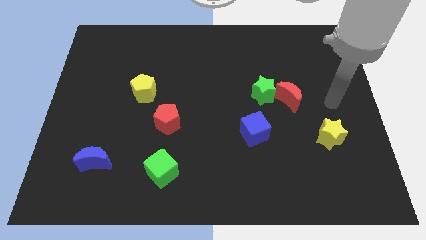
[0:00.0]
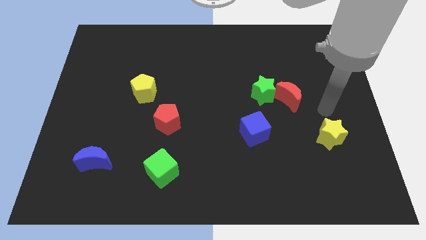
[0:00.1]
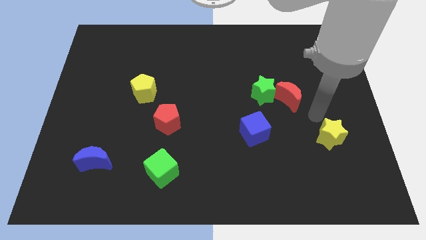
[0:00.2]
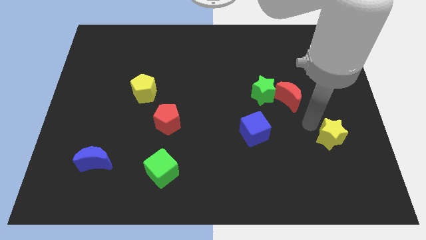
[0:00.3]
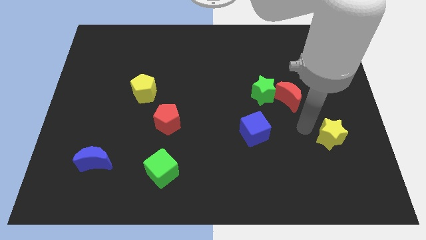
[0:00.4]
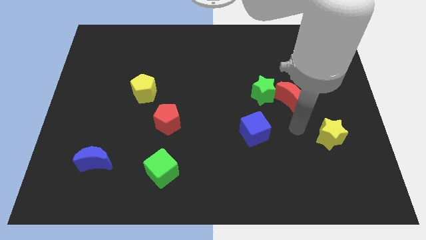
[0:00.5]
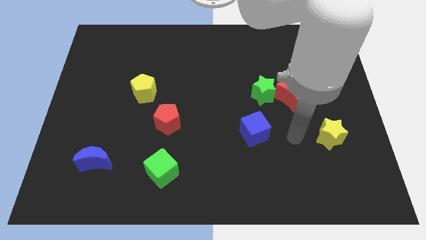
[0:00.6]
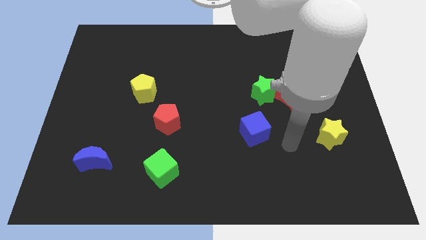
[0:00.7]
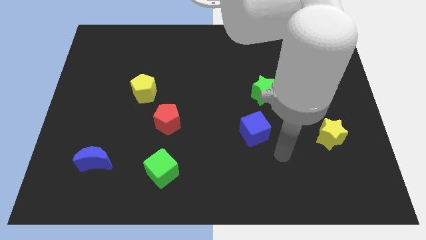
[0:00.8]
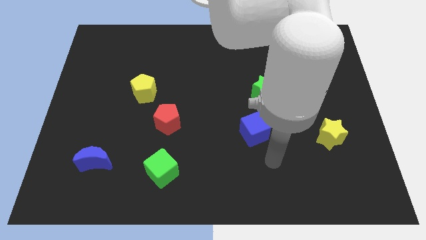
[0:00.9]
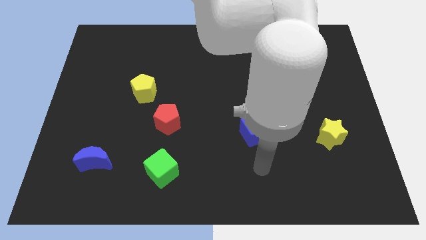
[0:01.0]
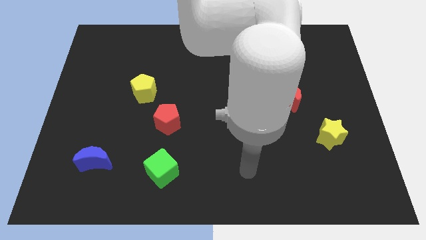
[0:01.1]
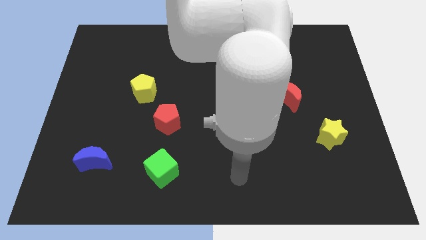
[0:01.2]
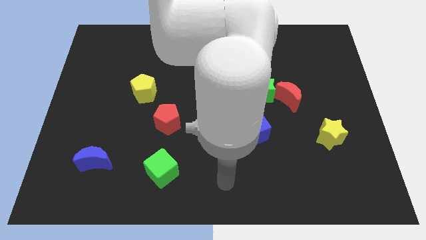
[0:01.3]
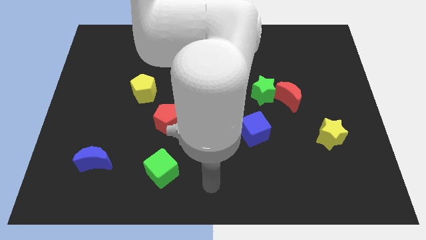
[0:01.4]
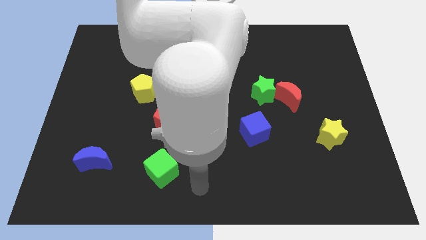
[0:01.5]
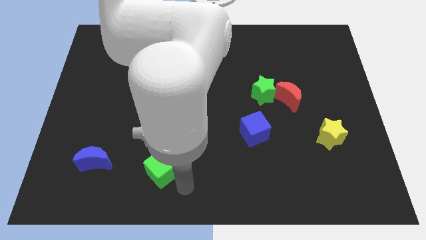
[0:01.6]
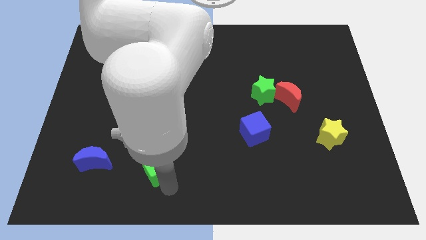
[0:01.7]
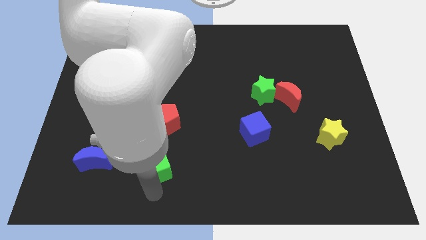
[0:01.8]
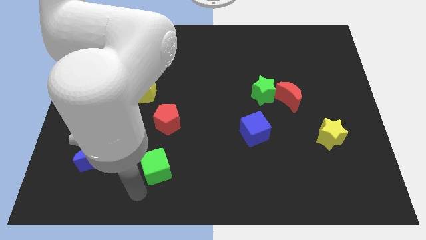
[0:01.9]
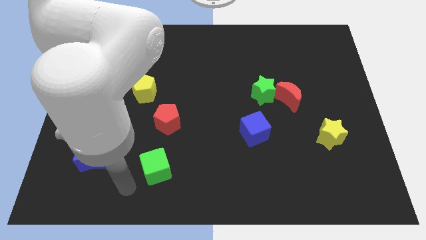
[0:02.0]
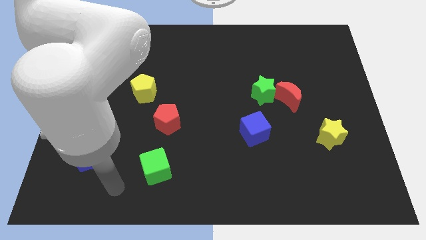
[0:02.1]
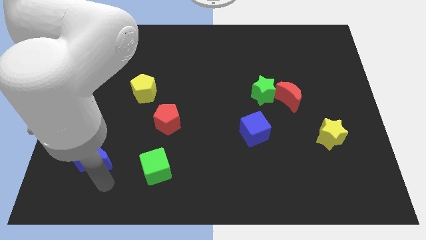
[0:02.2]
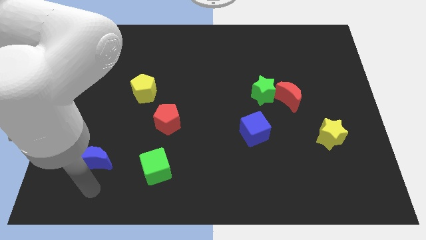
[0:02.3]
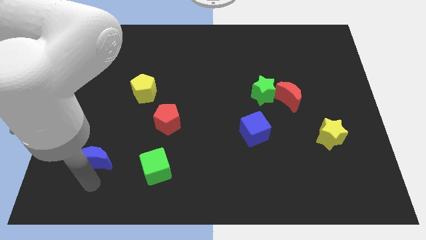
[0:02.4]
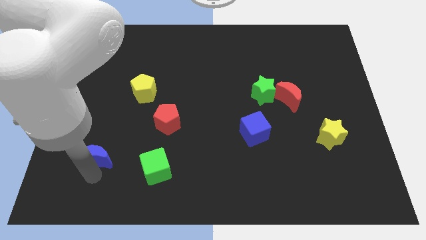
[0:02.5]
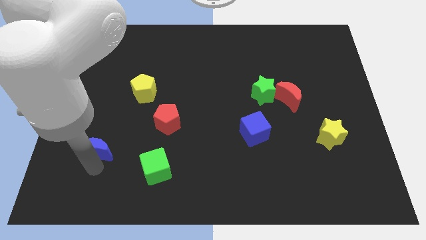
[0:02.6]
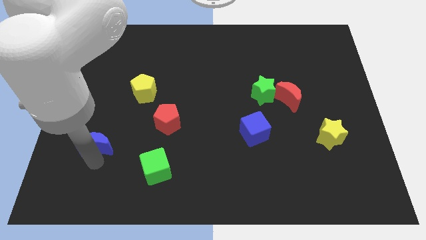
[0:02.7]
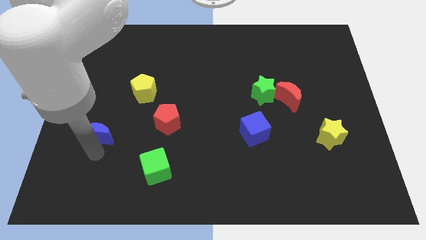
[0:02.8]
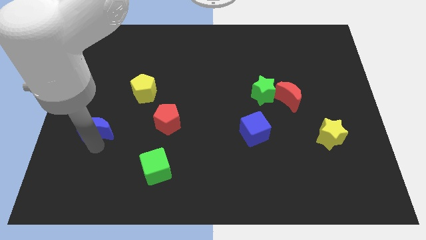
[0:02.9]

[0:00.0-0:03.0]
slide the blue moon up a little

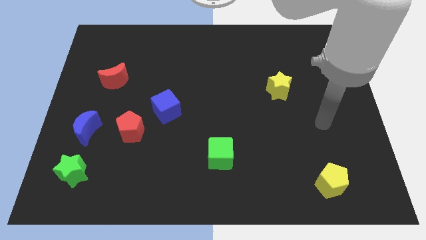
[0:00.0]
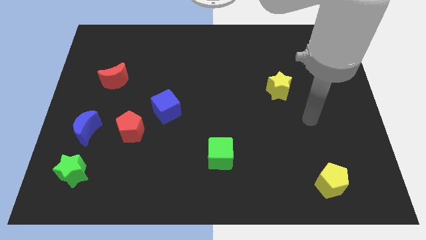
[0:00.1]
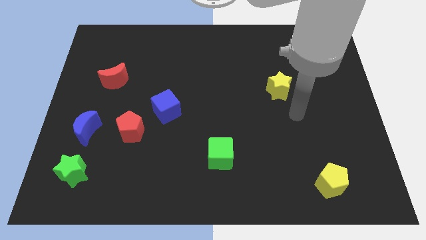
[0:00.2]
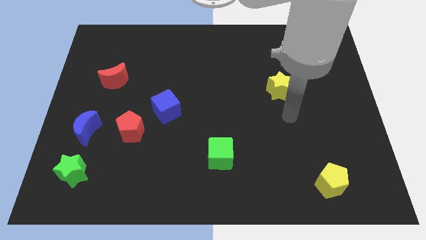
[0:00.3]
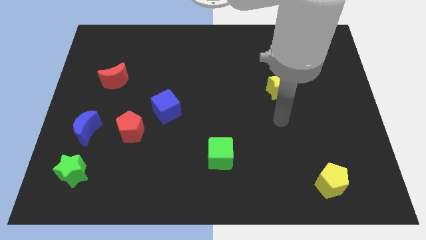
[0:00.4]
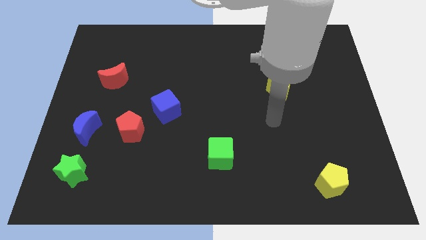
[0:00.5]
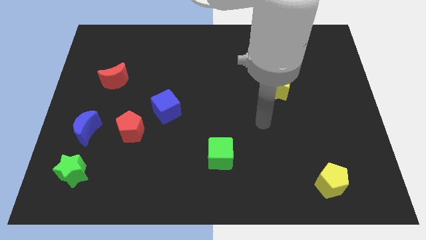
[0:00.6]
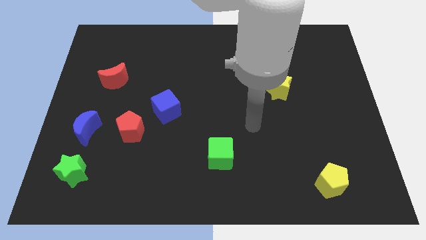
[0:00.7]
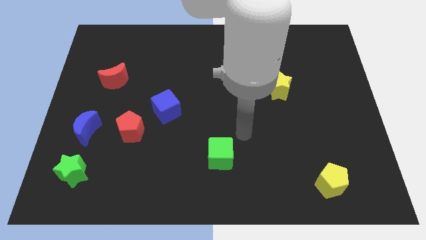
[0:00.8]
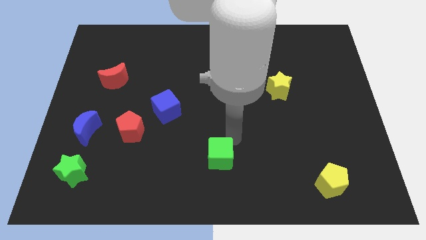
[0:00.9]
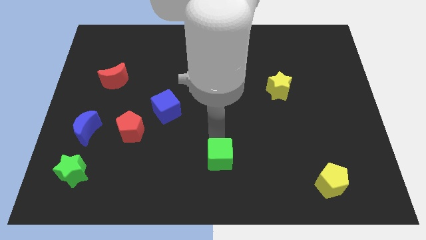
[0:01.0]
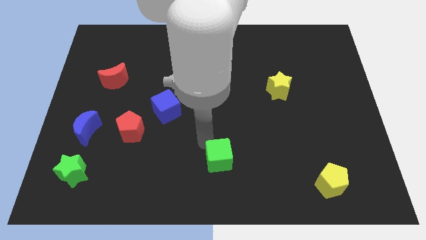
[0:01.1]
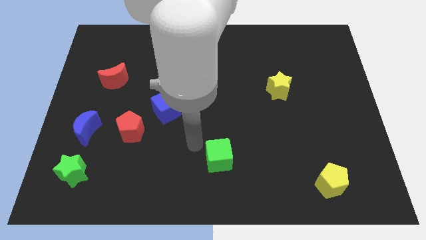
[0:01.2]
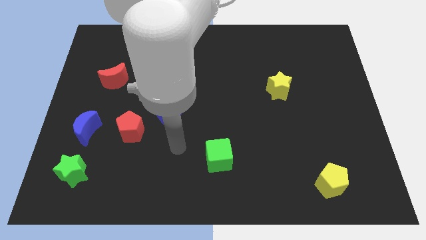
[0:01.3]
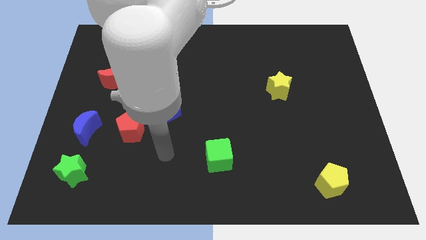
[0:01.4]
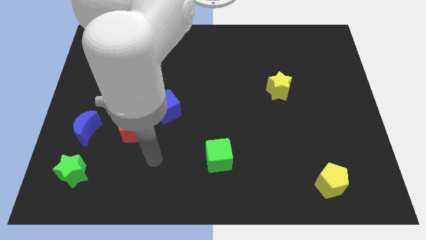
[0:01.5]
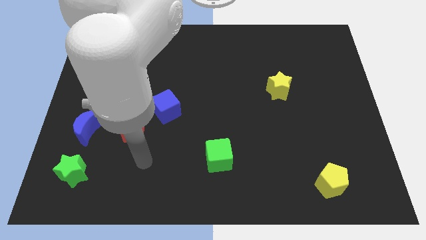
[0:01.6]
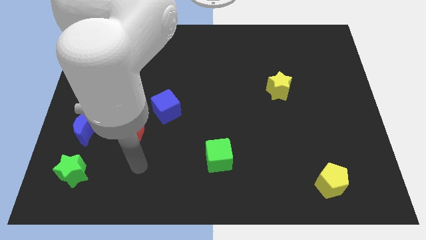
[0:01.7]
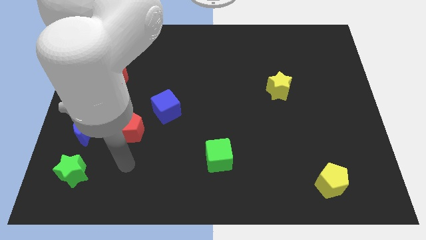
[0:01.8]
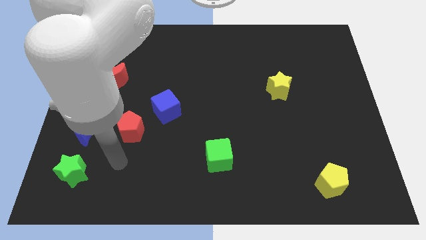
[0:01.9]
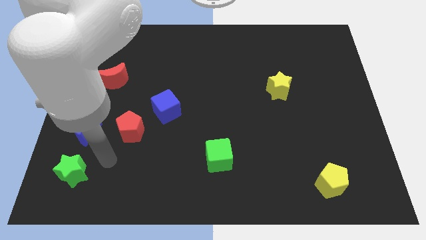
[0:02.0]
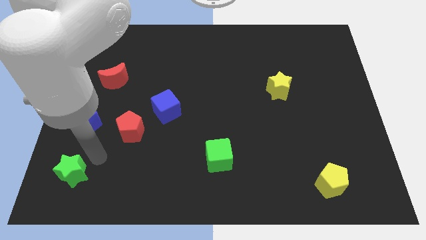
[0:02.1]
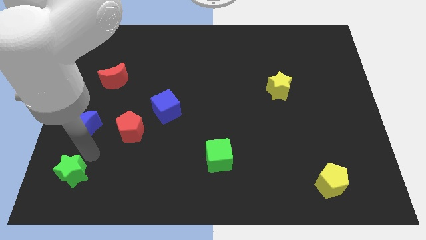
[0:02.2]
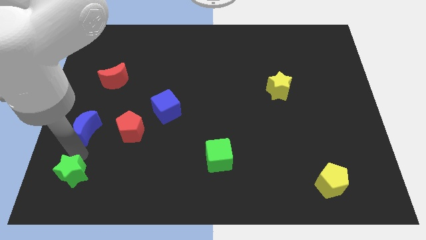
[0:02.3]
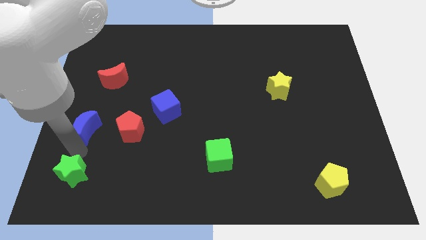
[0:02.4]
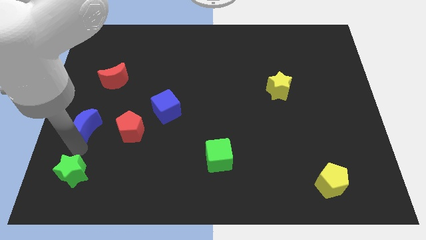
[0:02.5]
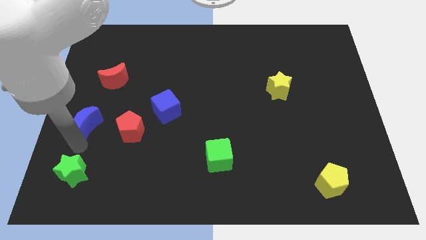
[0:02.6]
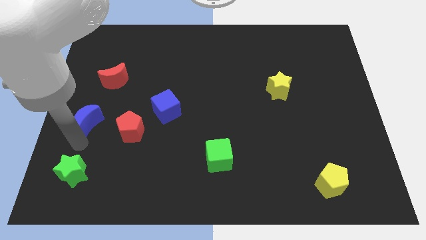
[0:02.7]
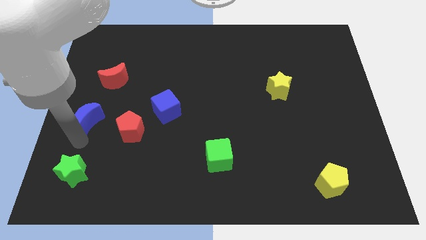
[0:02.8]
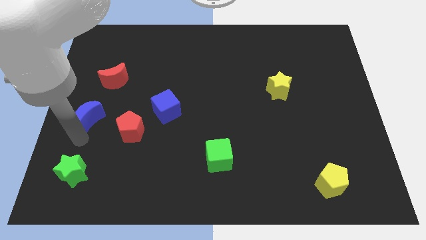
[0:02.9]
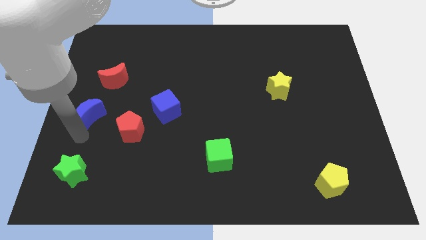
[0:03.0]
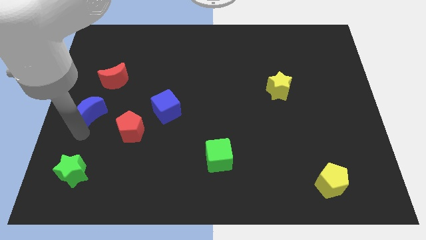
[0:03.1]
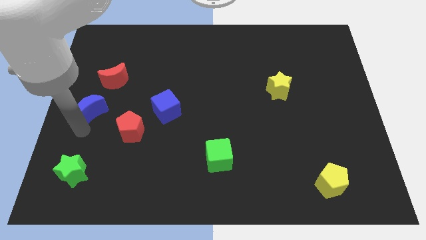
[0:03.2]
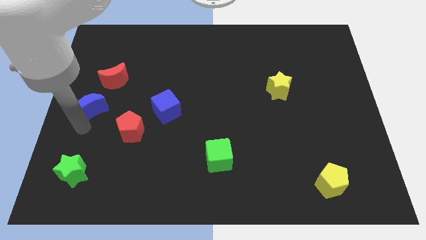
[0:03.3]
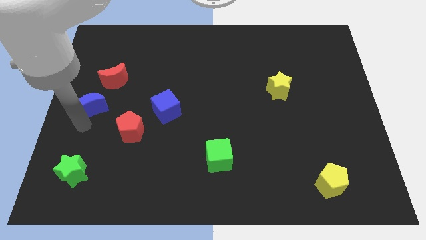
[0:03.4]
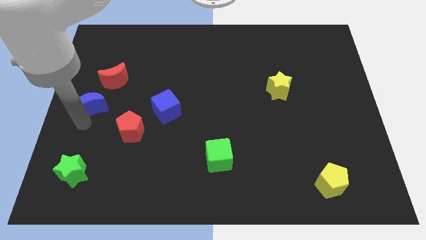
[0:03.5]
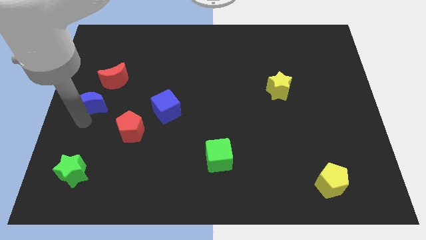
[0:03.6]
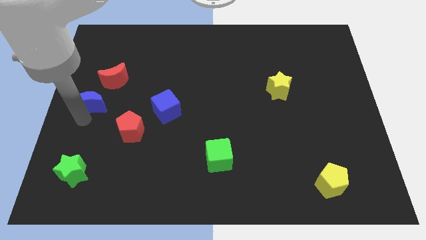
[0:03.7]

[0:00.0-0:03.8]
slightly move the blue moon upwards

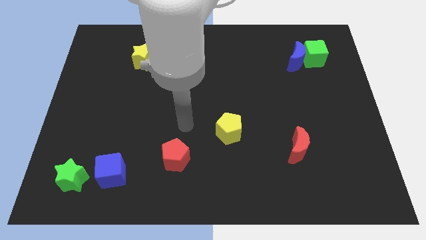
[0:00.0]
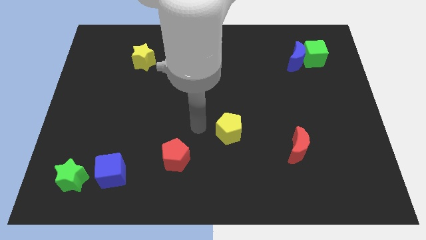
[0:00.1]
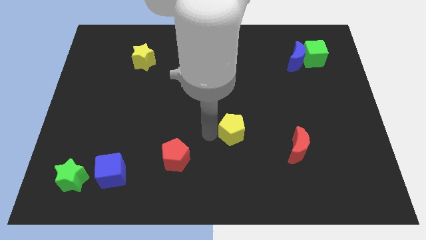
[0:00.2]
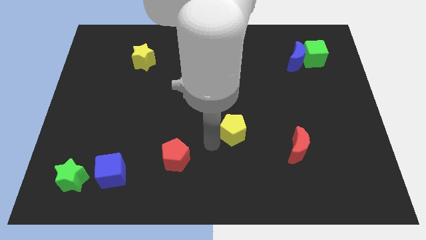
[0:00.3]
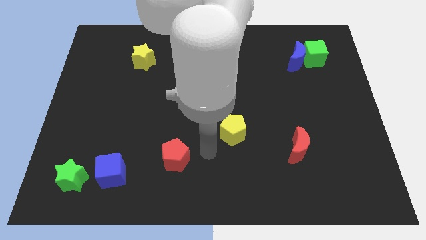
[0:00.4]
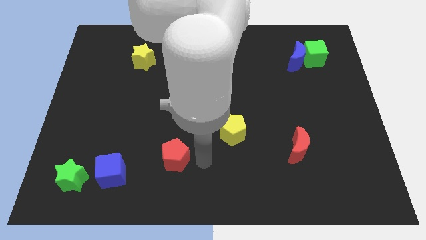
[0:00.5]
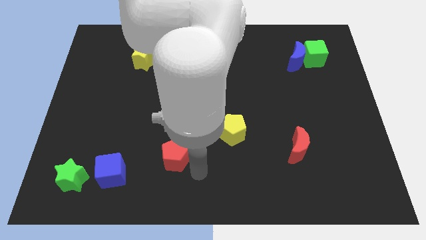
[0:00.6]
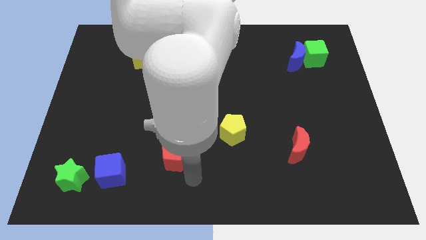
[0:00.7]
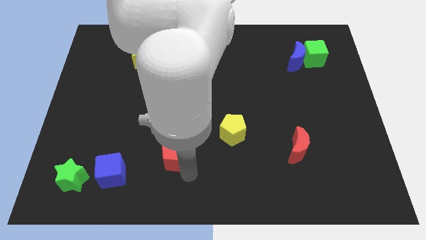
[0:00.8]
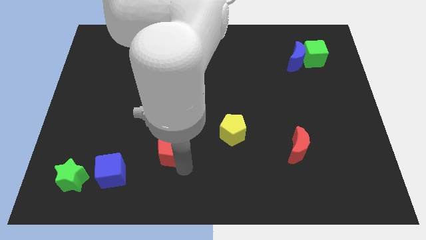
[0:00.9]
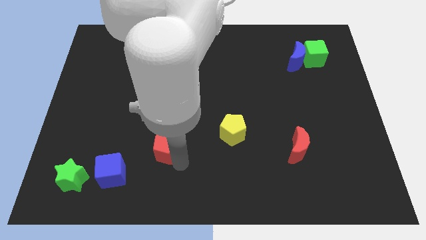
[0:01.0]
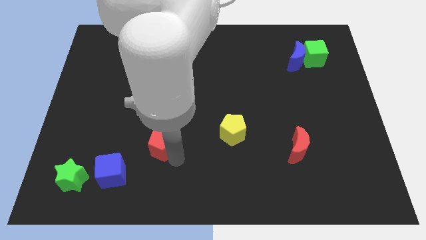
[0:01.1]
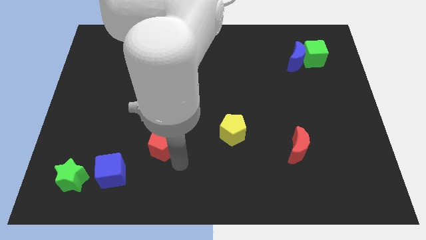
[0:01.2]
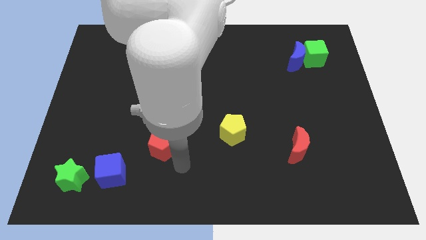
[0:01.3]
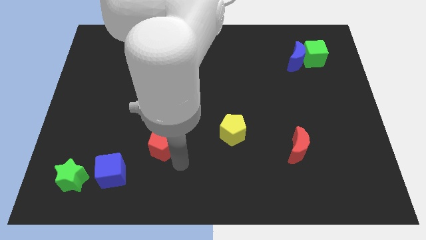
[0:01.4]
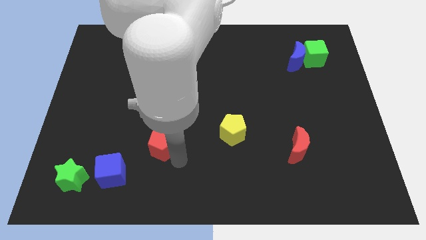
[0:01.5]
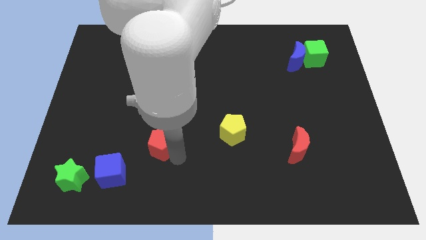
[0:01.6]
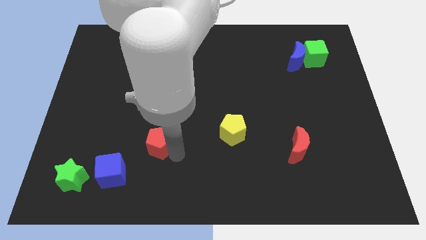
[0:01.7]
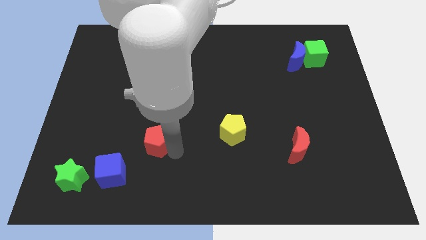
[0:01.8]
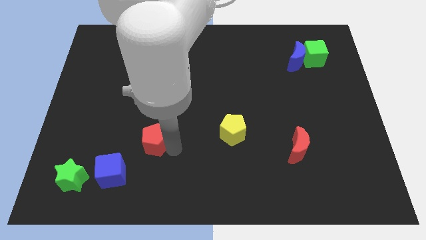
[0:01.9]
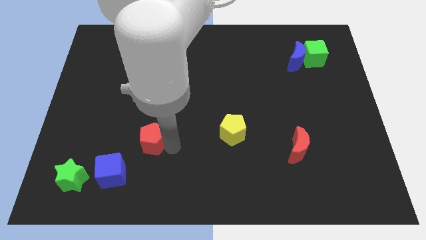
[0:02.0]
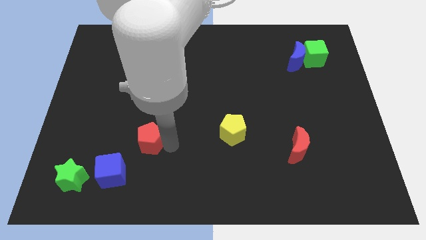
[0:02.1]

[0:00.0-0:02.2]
push the red pentagon somewhat upwards and then left
